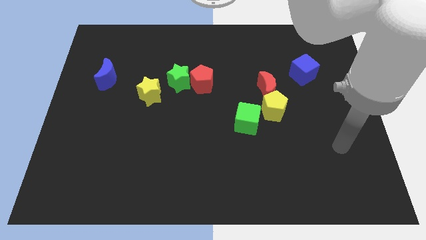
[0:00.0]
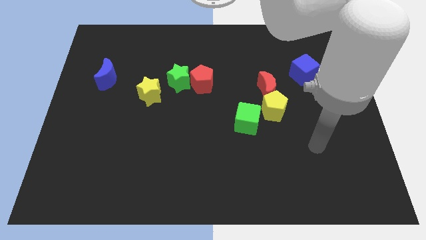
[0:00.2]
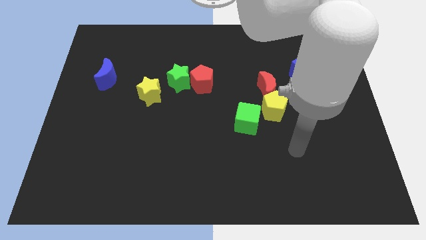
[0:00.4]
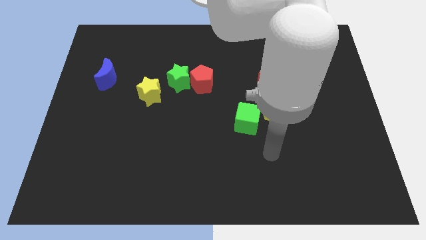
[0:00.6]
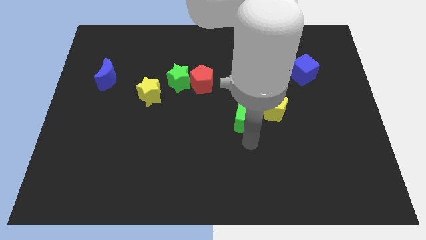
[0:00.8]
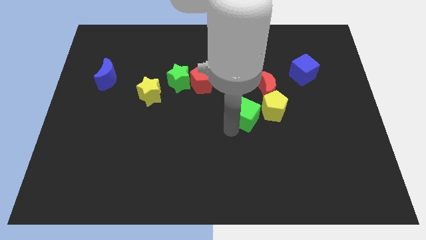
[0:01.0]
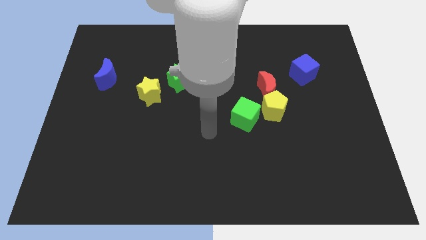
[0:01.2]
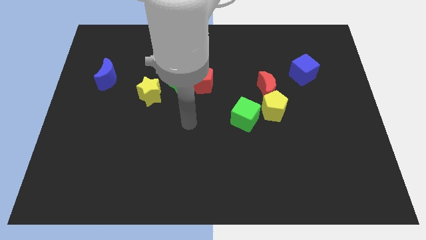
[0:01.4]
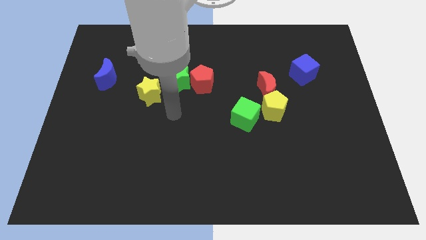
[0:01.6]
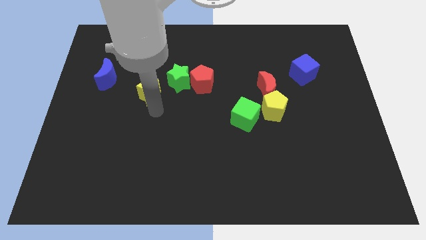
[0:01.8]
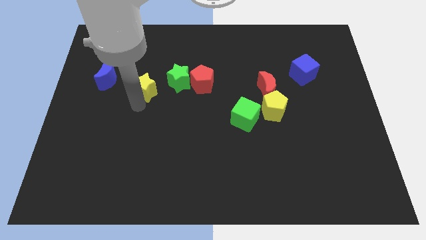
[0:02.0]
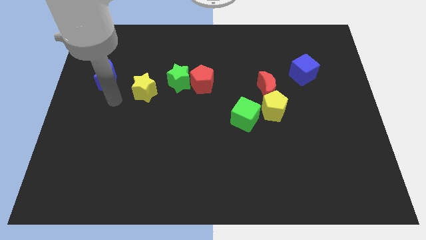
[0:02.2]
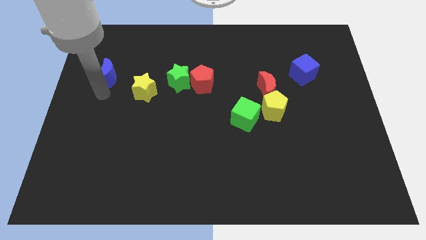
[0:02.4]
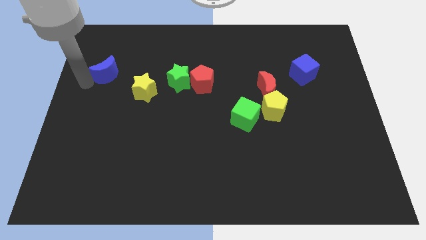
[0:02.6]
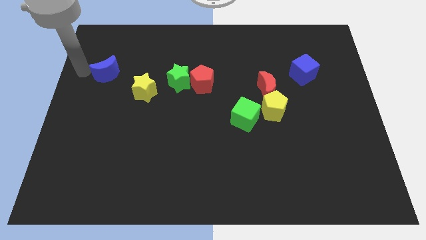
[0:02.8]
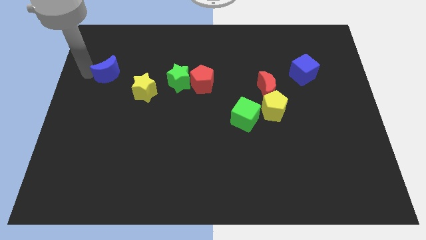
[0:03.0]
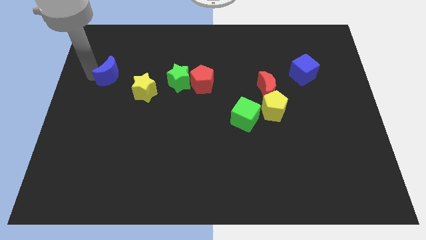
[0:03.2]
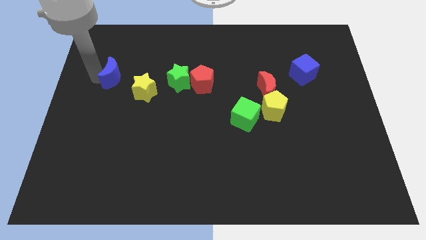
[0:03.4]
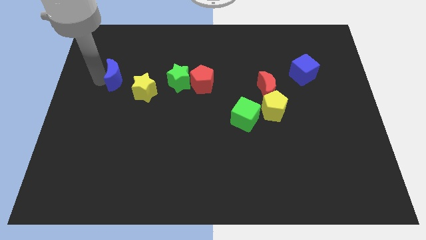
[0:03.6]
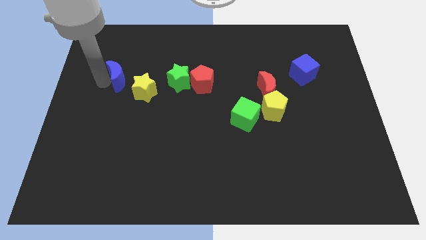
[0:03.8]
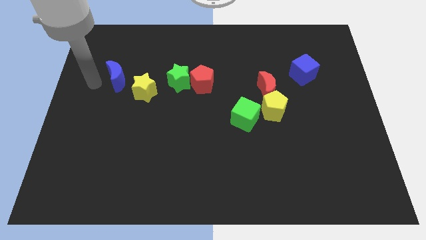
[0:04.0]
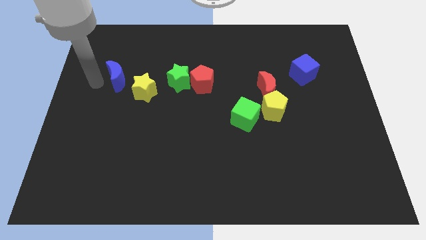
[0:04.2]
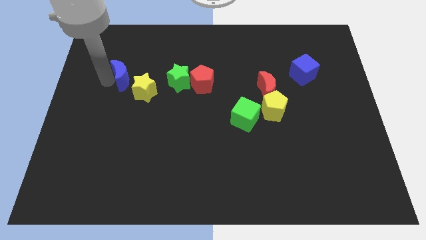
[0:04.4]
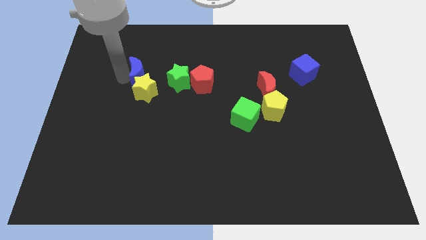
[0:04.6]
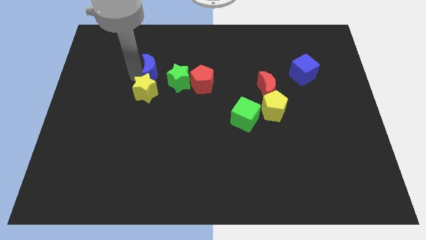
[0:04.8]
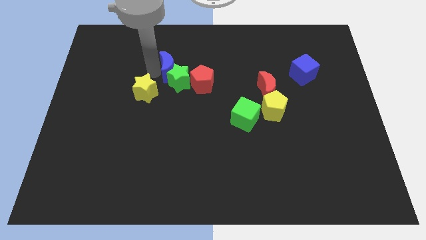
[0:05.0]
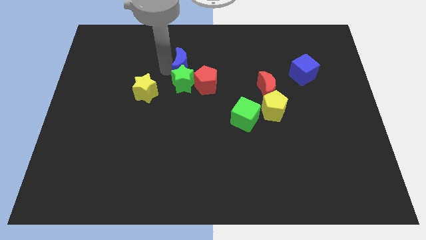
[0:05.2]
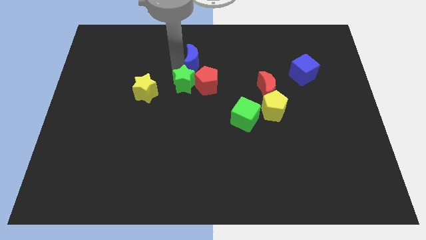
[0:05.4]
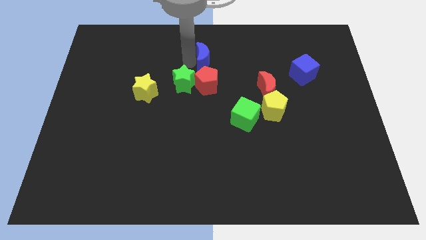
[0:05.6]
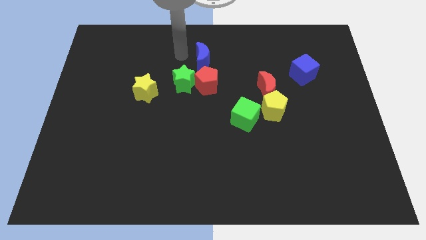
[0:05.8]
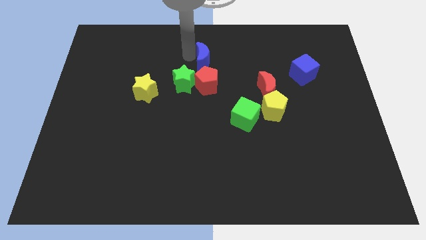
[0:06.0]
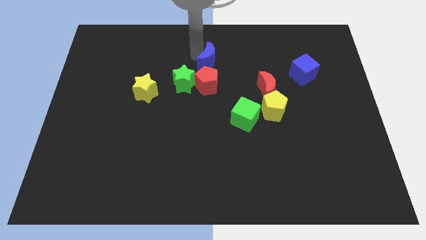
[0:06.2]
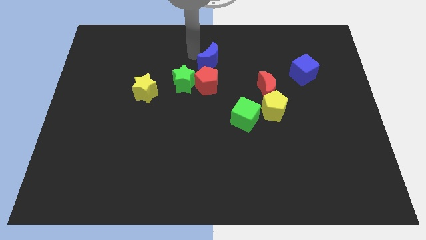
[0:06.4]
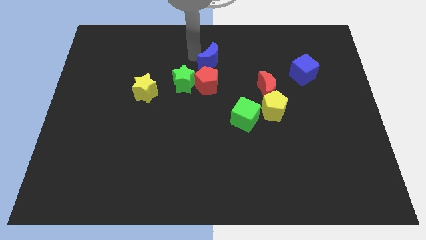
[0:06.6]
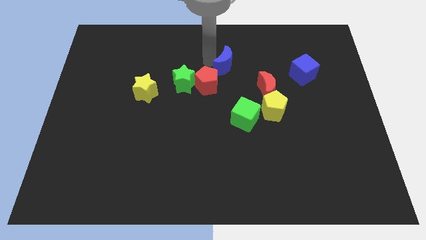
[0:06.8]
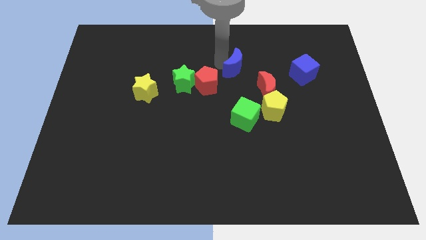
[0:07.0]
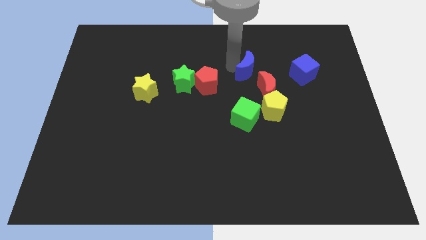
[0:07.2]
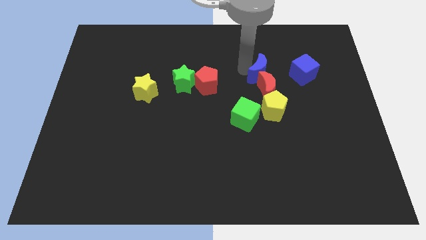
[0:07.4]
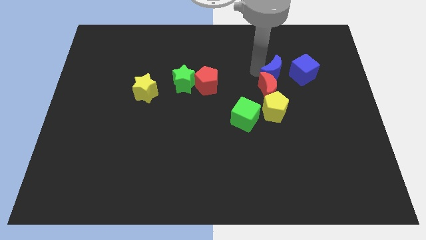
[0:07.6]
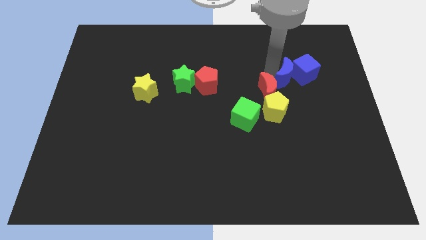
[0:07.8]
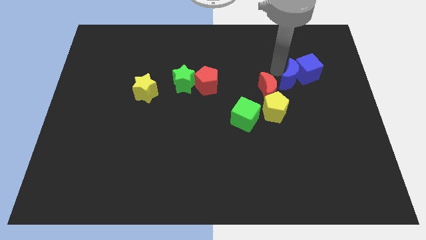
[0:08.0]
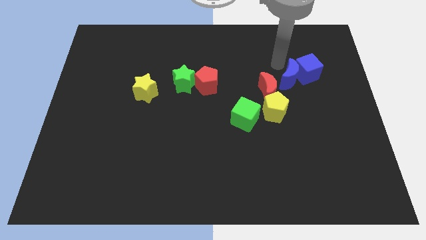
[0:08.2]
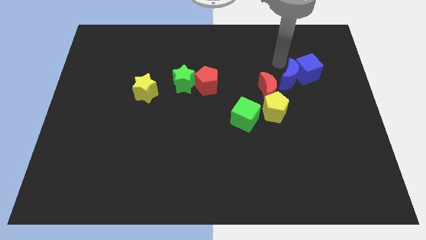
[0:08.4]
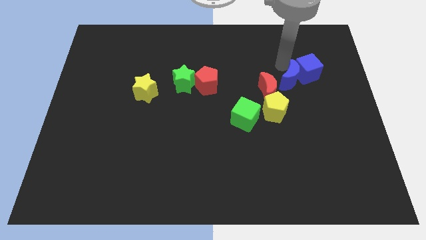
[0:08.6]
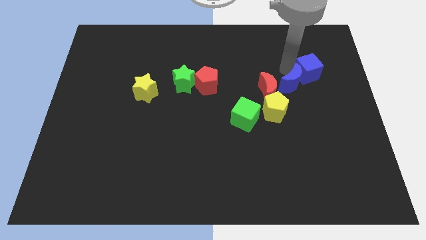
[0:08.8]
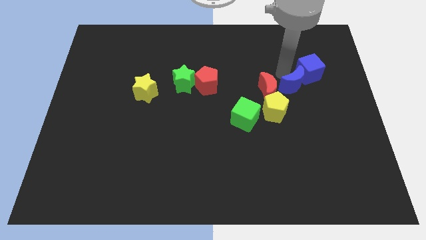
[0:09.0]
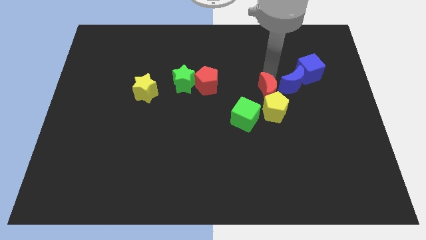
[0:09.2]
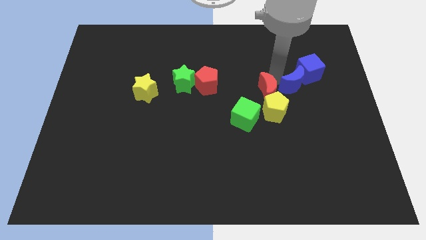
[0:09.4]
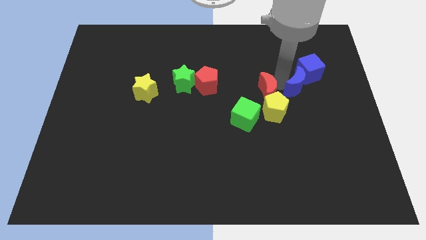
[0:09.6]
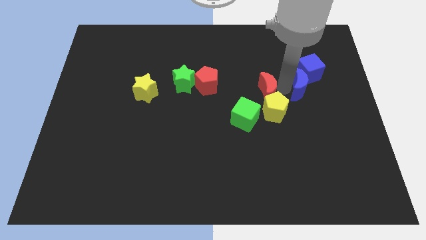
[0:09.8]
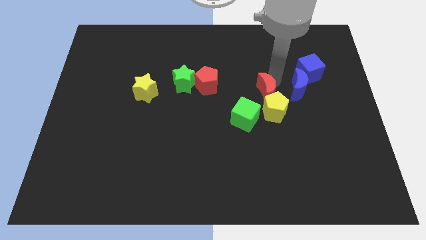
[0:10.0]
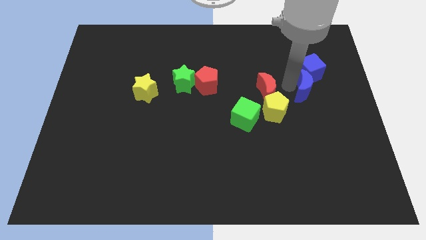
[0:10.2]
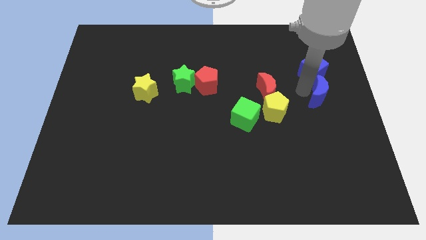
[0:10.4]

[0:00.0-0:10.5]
push the blue moon to the right side

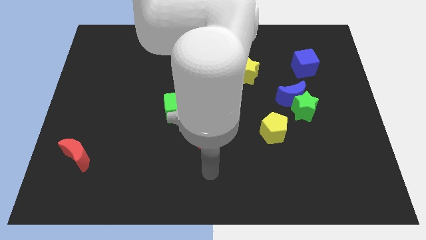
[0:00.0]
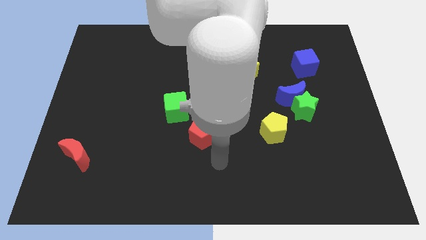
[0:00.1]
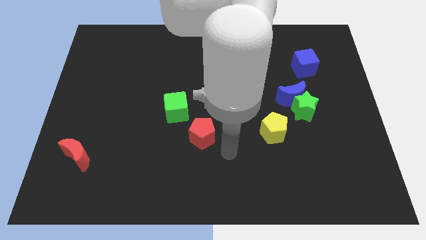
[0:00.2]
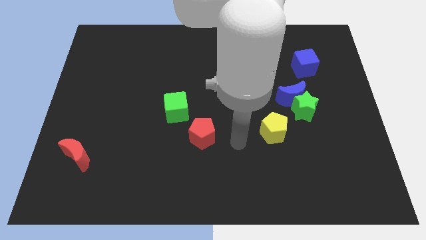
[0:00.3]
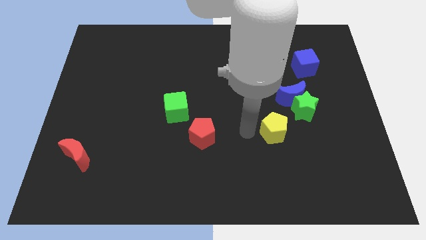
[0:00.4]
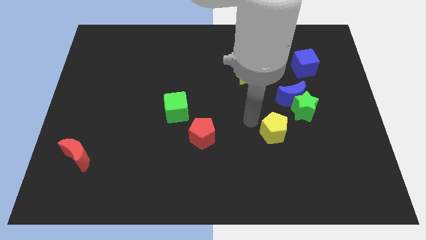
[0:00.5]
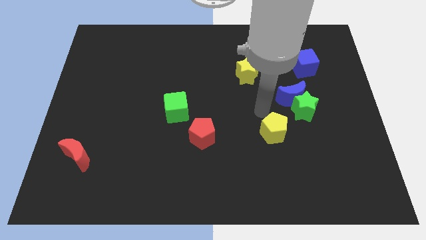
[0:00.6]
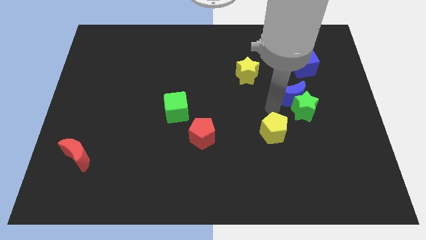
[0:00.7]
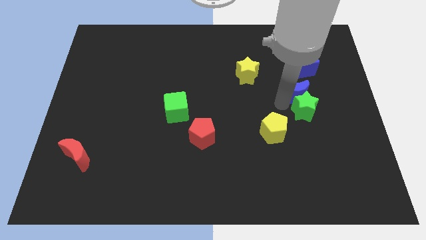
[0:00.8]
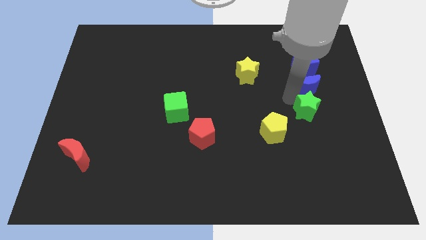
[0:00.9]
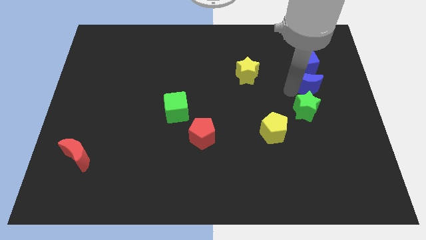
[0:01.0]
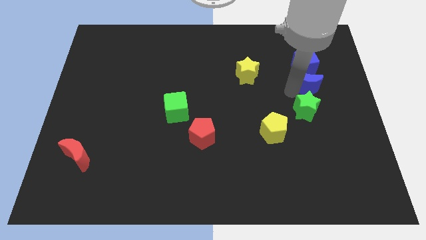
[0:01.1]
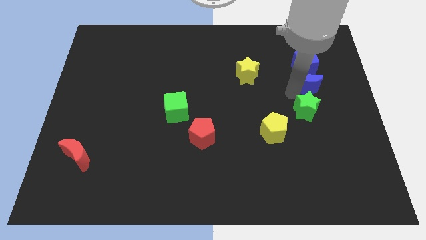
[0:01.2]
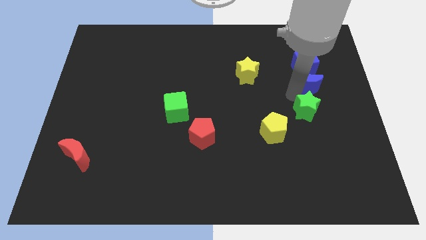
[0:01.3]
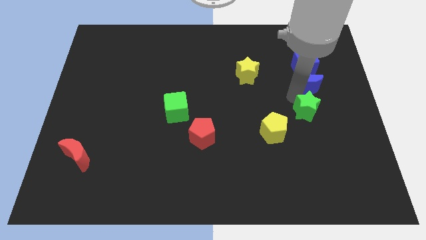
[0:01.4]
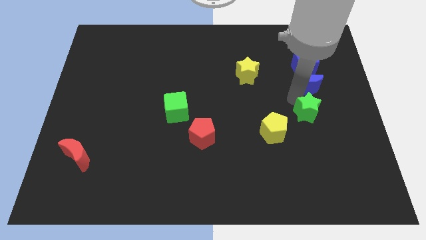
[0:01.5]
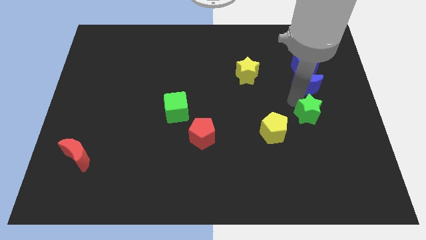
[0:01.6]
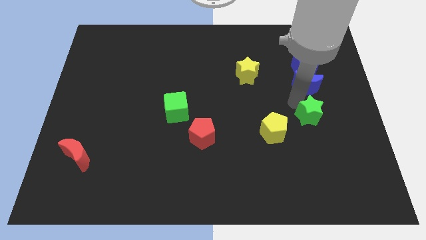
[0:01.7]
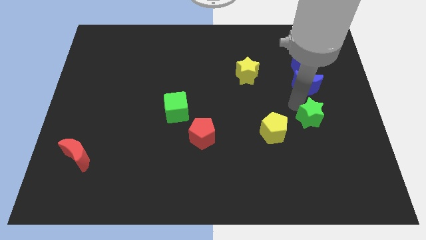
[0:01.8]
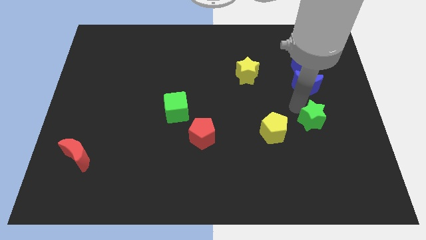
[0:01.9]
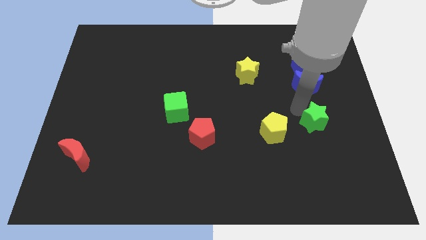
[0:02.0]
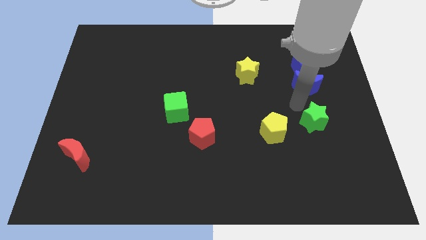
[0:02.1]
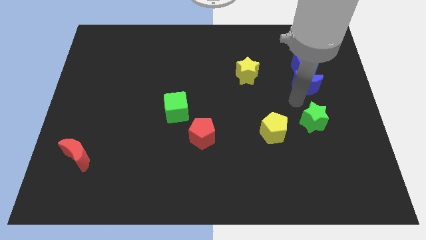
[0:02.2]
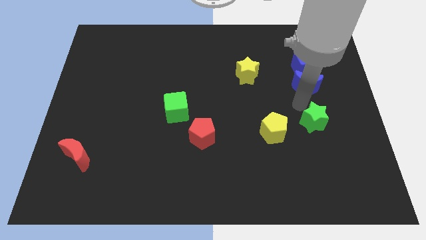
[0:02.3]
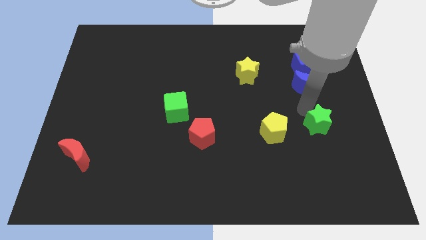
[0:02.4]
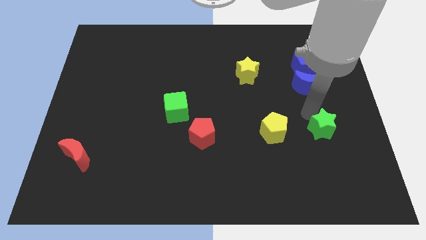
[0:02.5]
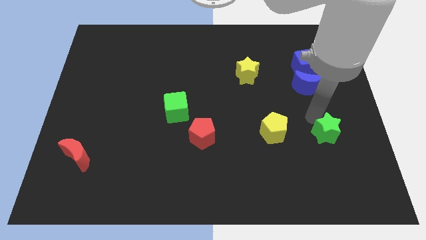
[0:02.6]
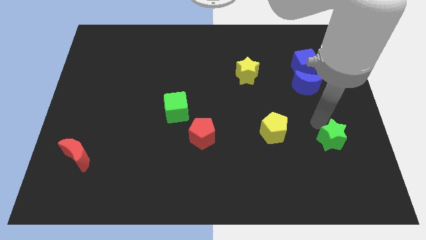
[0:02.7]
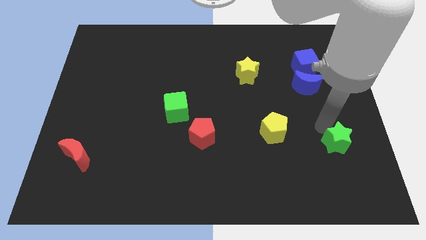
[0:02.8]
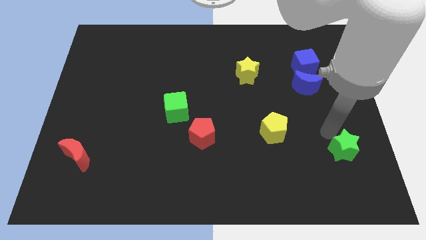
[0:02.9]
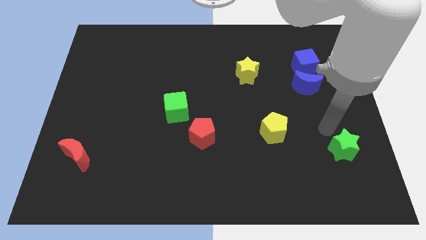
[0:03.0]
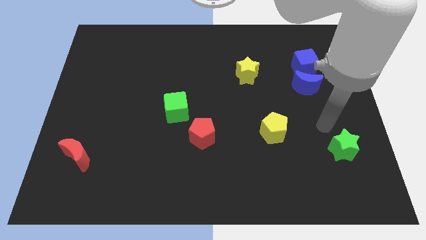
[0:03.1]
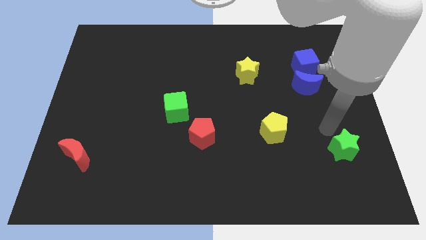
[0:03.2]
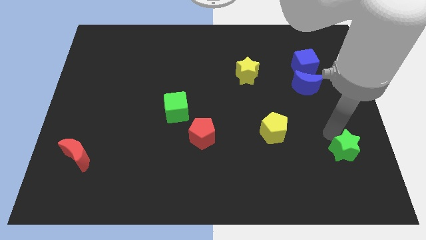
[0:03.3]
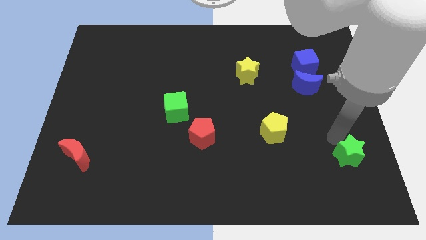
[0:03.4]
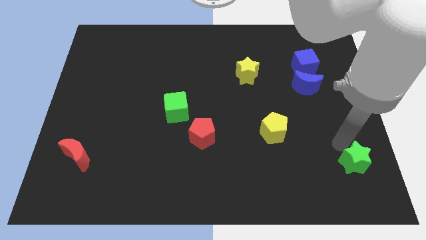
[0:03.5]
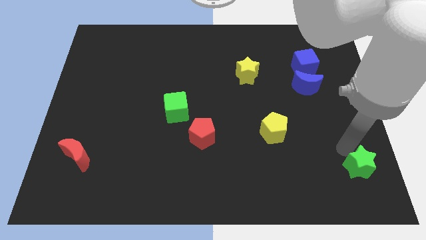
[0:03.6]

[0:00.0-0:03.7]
put the green star to the bottom right of the board
